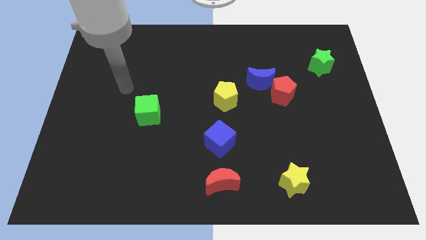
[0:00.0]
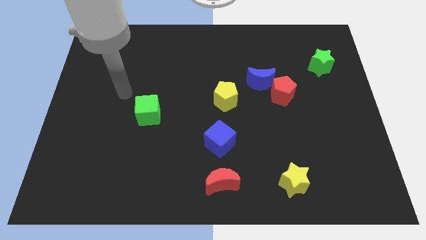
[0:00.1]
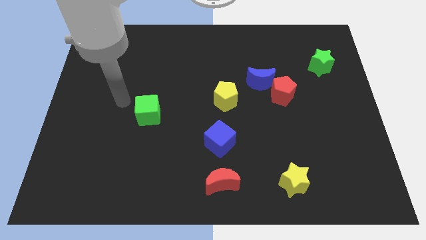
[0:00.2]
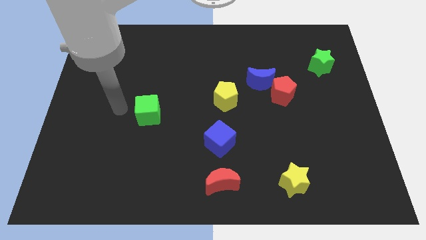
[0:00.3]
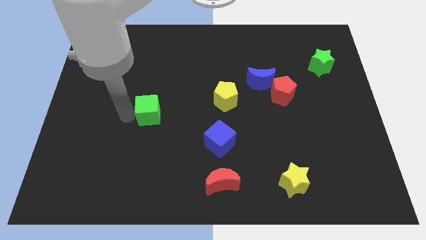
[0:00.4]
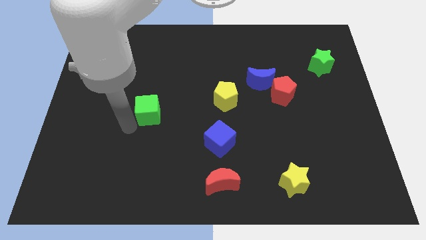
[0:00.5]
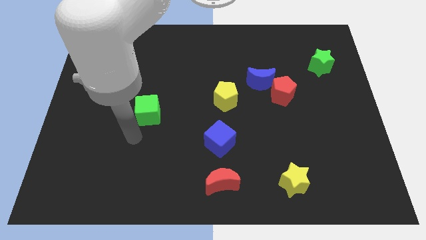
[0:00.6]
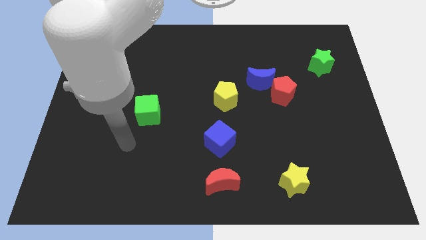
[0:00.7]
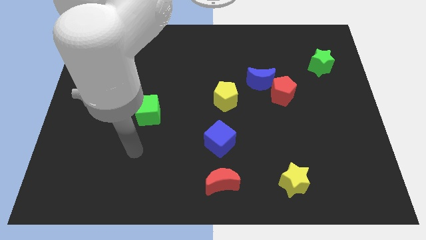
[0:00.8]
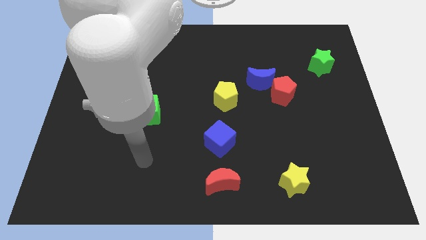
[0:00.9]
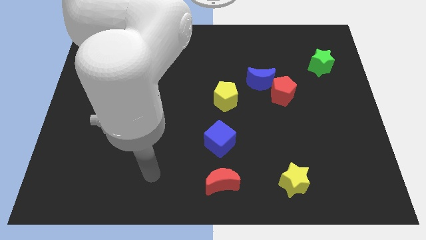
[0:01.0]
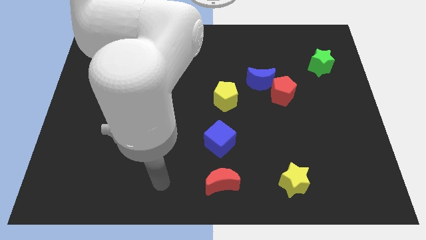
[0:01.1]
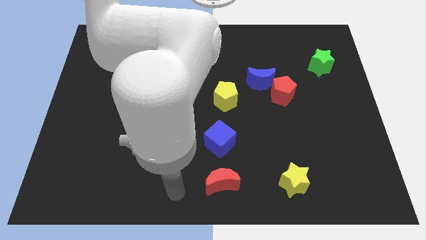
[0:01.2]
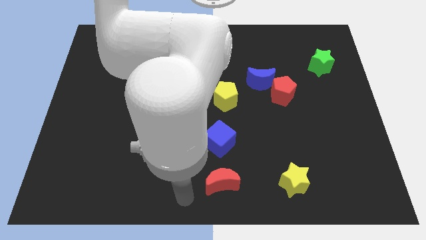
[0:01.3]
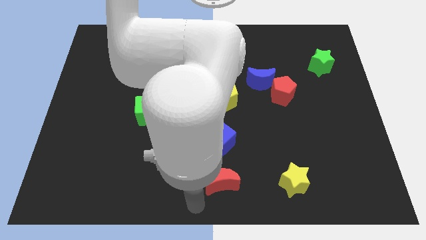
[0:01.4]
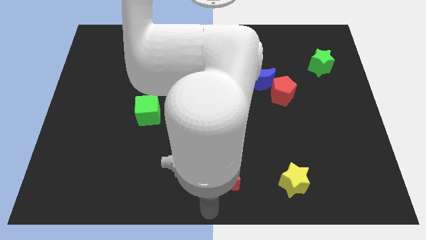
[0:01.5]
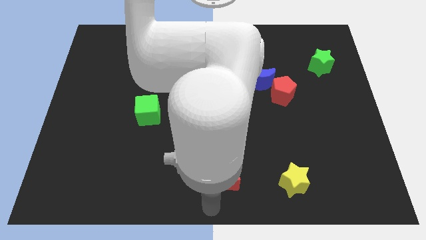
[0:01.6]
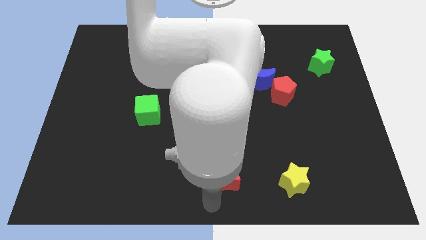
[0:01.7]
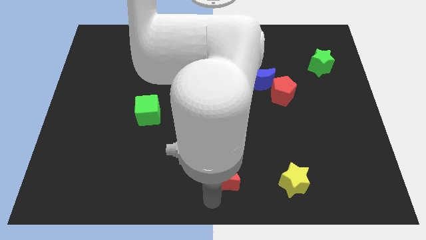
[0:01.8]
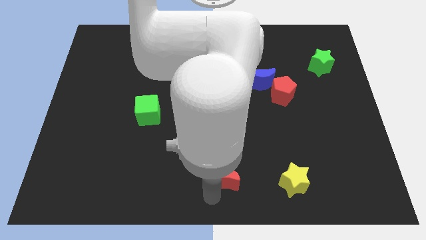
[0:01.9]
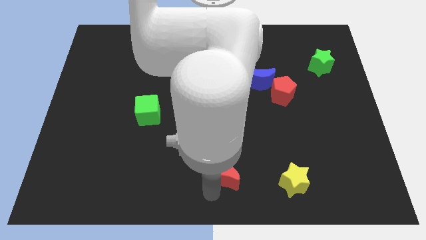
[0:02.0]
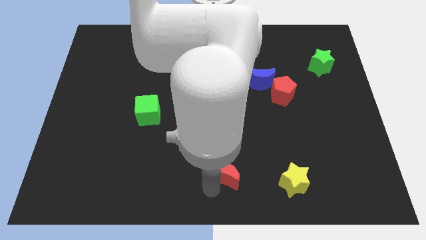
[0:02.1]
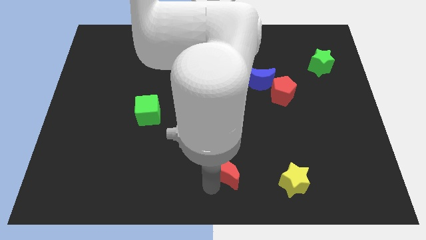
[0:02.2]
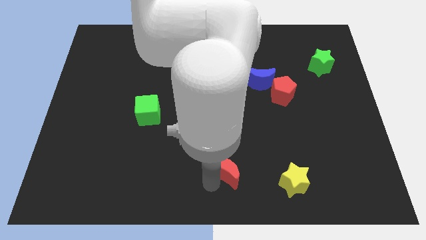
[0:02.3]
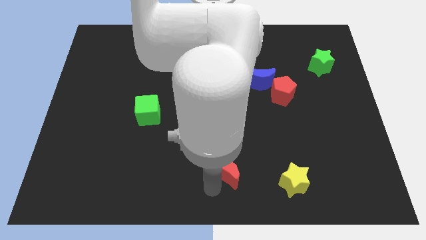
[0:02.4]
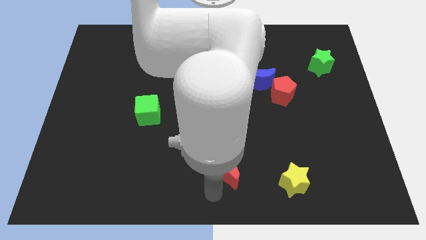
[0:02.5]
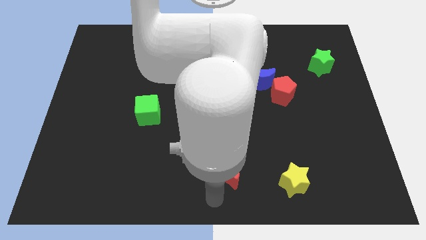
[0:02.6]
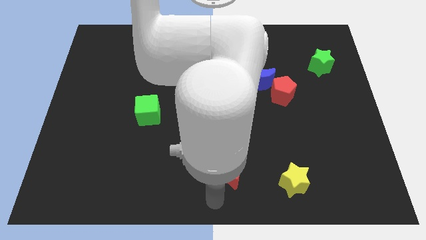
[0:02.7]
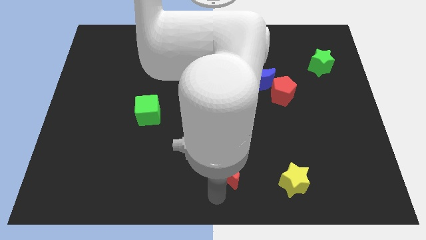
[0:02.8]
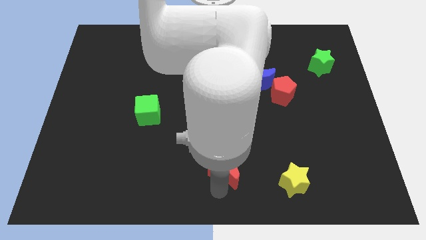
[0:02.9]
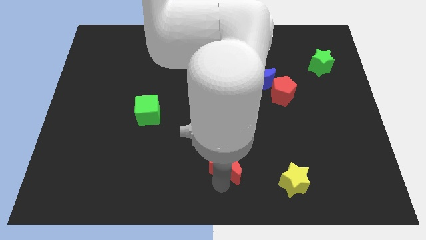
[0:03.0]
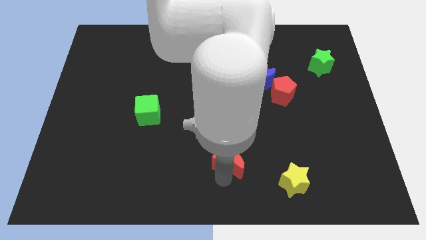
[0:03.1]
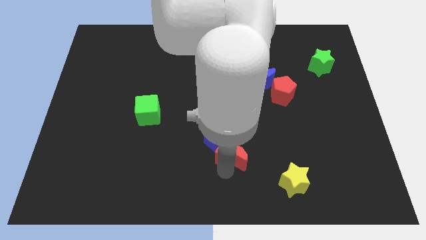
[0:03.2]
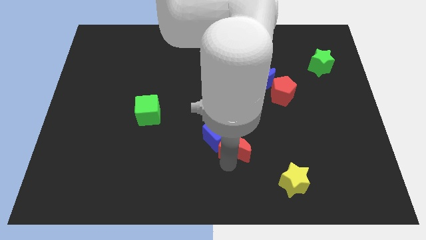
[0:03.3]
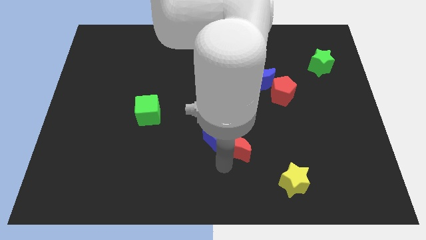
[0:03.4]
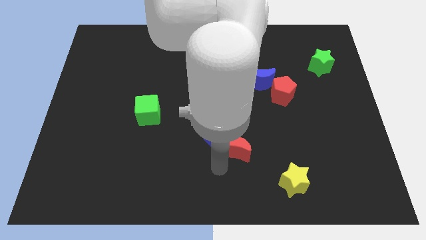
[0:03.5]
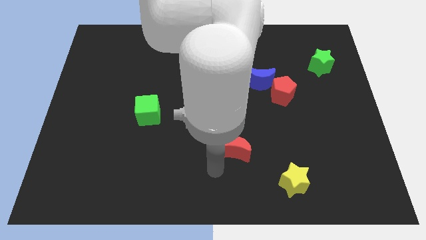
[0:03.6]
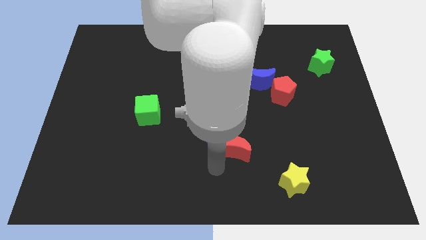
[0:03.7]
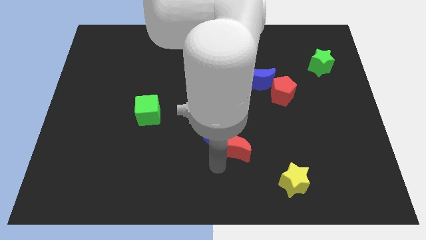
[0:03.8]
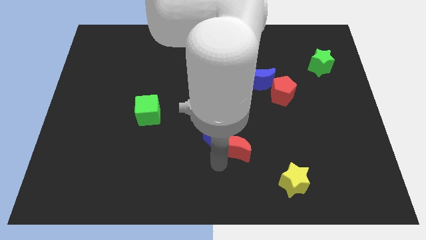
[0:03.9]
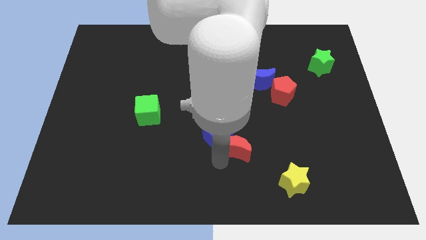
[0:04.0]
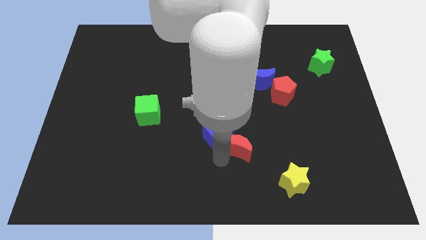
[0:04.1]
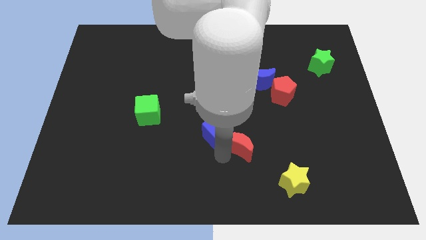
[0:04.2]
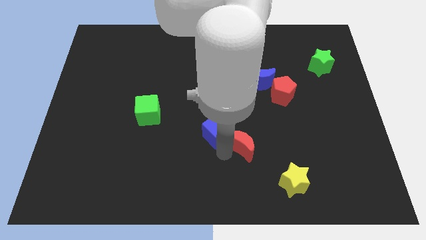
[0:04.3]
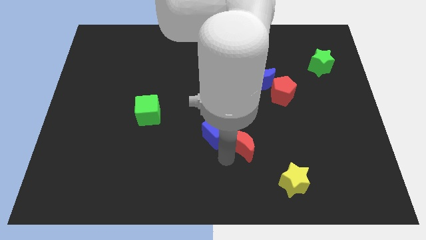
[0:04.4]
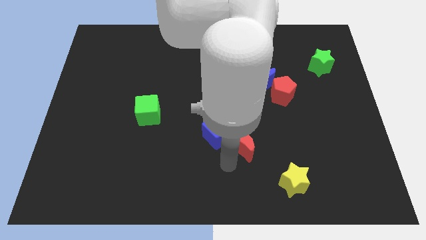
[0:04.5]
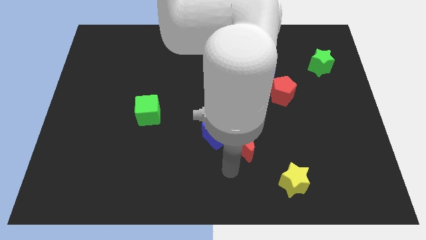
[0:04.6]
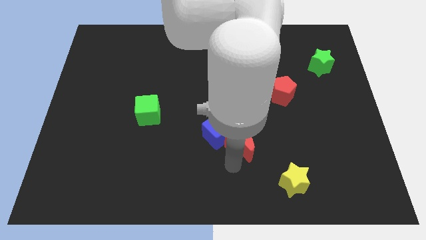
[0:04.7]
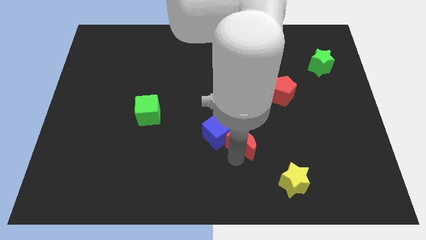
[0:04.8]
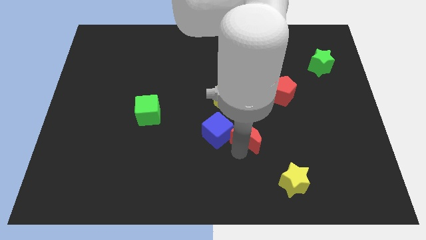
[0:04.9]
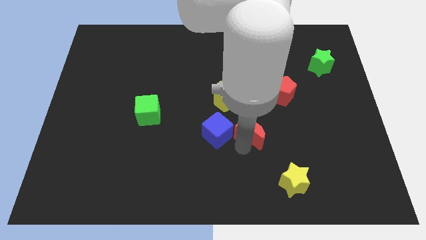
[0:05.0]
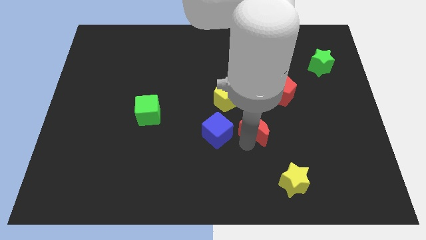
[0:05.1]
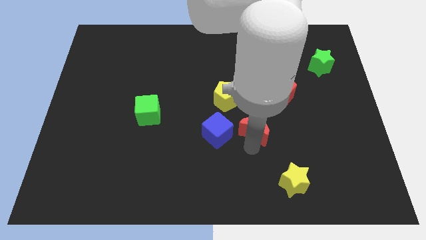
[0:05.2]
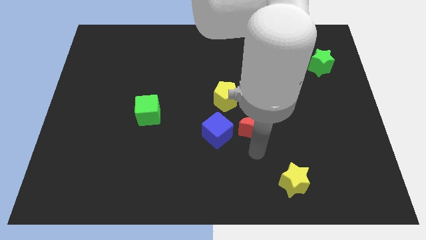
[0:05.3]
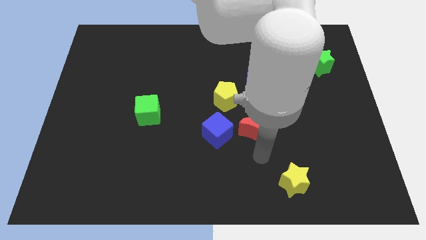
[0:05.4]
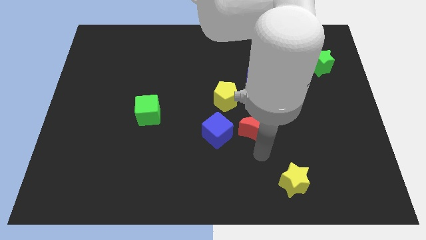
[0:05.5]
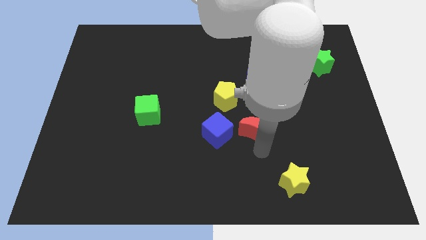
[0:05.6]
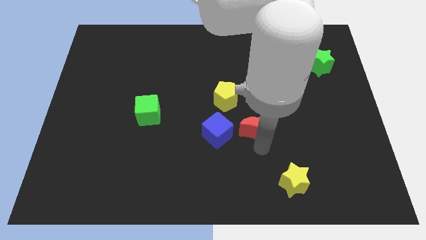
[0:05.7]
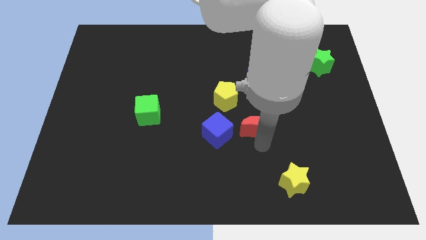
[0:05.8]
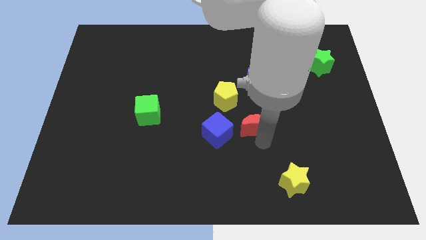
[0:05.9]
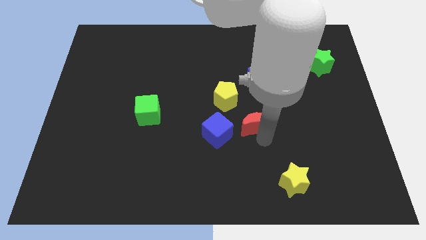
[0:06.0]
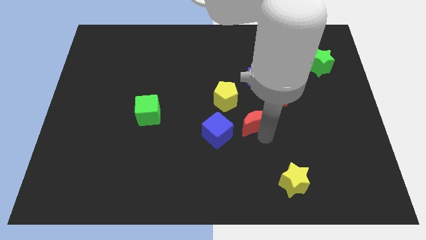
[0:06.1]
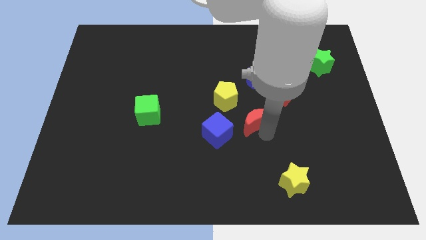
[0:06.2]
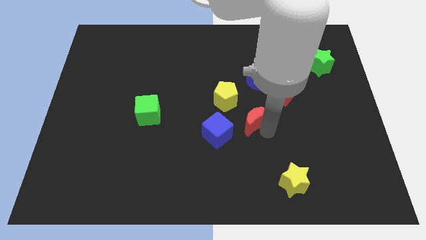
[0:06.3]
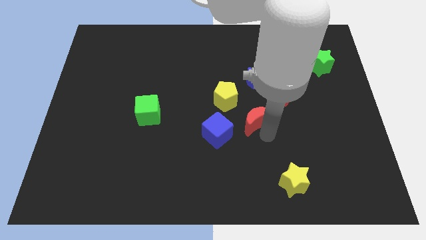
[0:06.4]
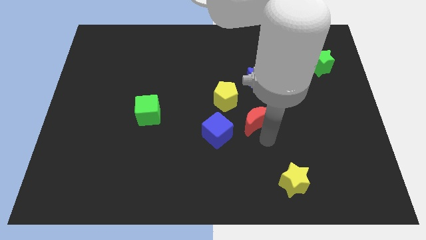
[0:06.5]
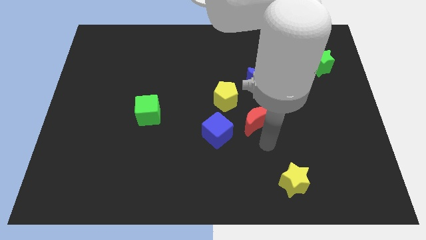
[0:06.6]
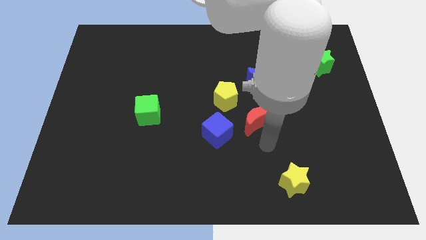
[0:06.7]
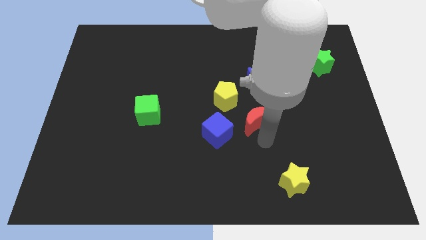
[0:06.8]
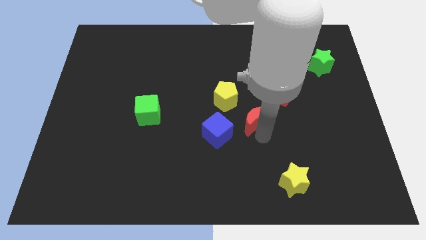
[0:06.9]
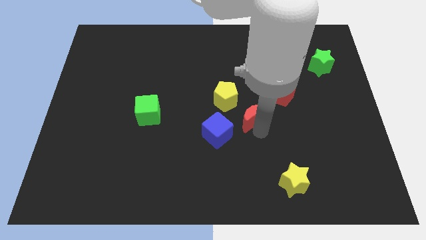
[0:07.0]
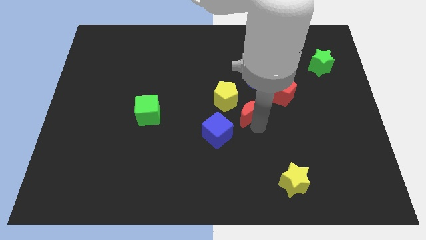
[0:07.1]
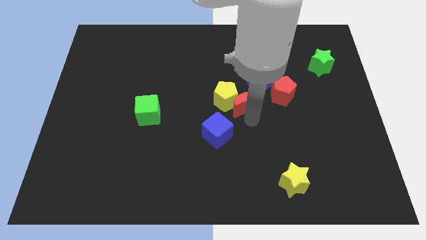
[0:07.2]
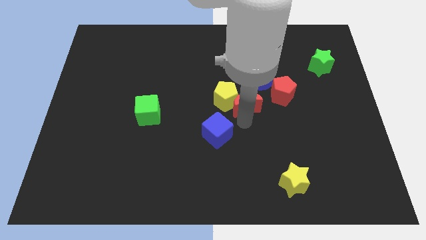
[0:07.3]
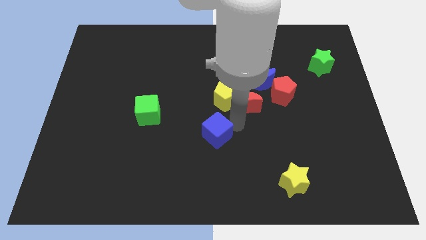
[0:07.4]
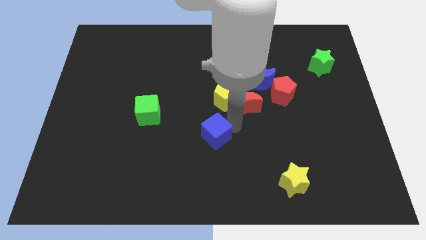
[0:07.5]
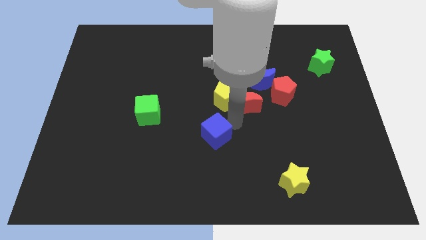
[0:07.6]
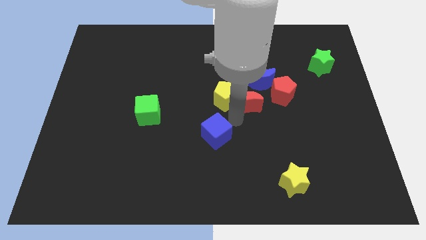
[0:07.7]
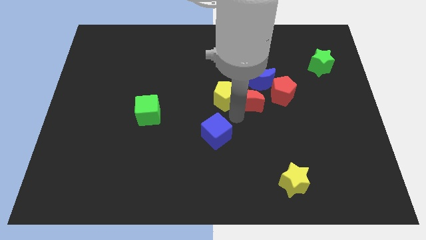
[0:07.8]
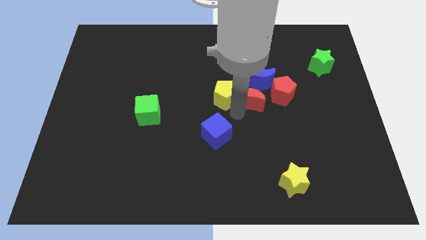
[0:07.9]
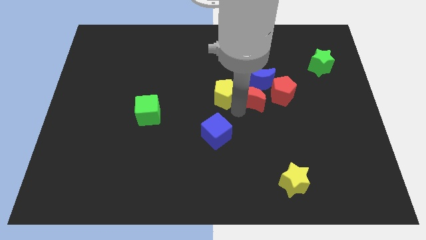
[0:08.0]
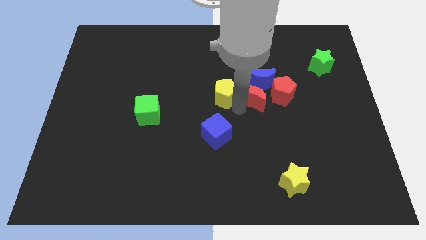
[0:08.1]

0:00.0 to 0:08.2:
put the red moon close to the blue moon
